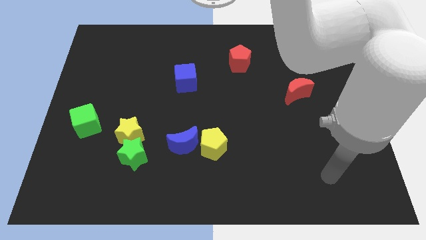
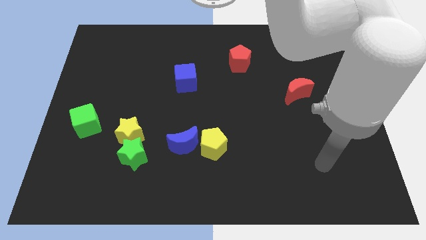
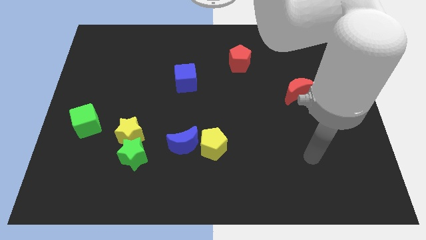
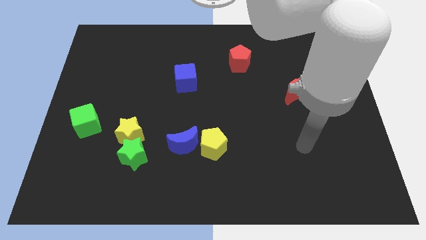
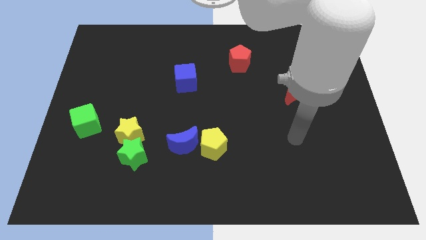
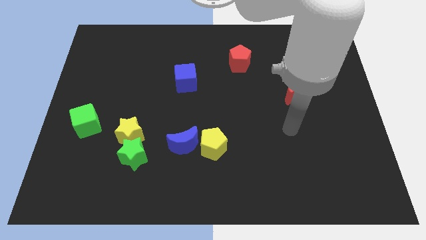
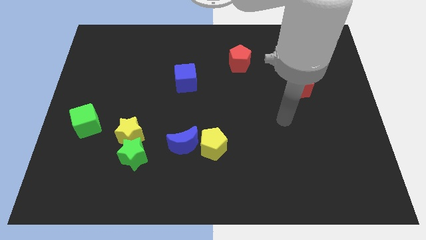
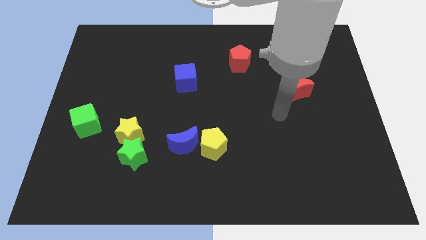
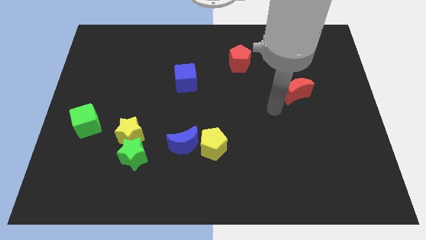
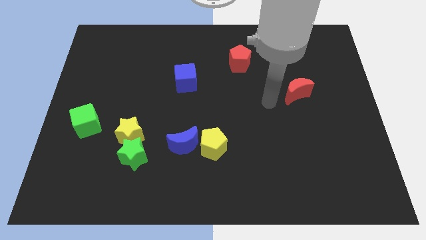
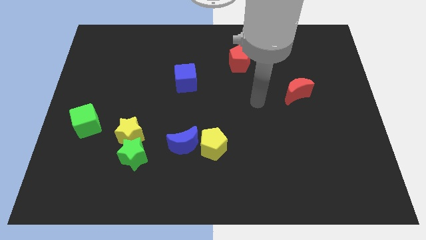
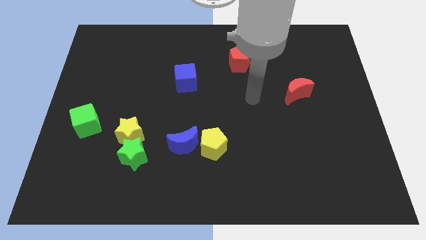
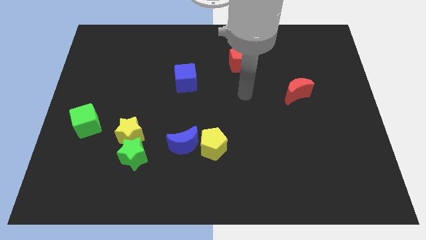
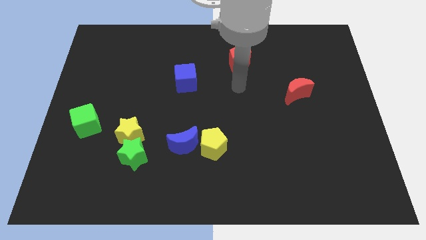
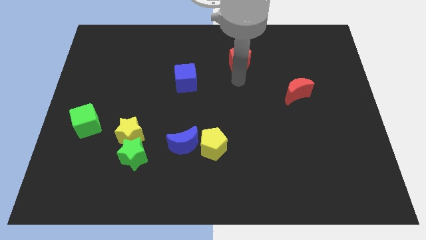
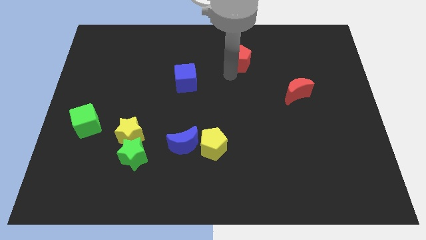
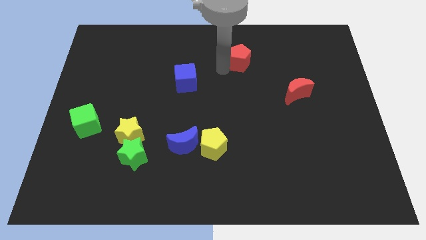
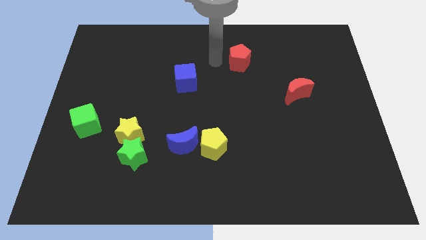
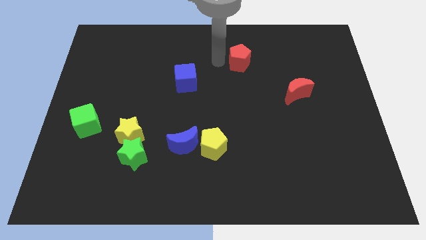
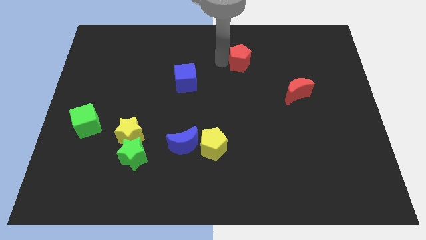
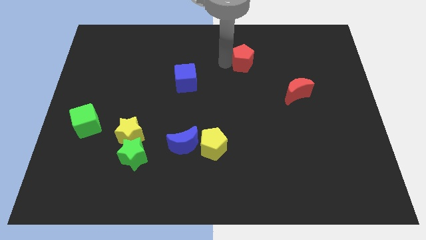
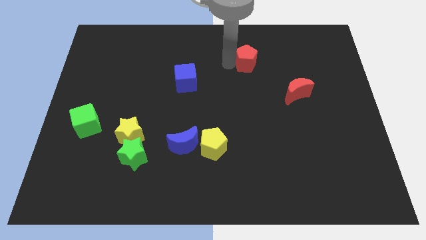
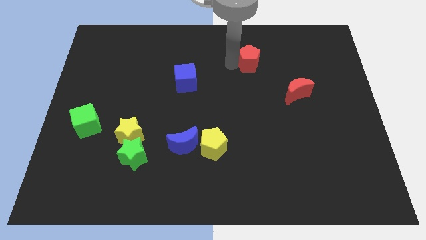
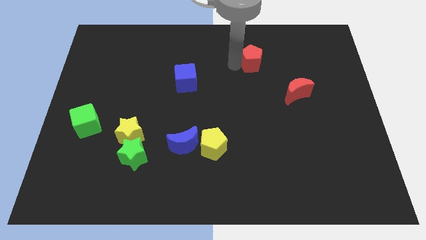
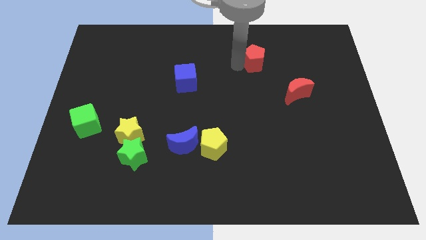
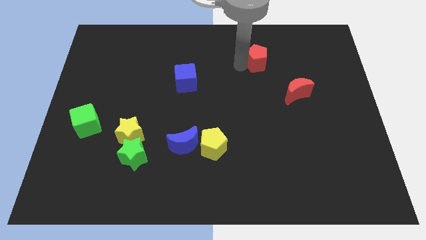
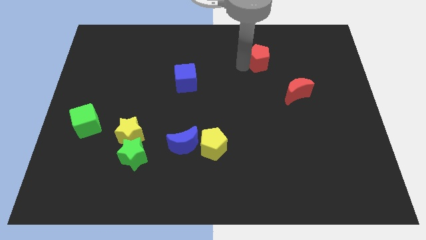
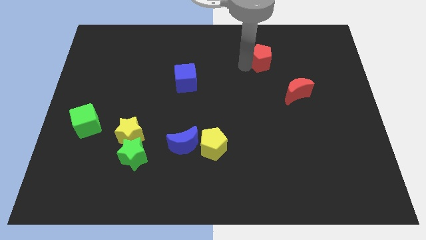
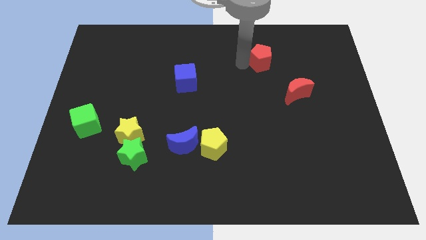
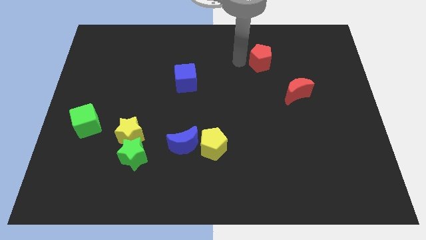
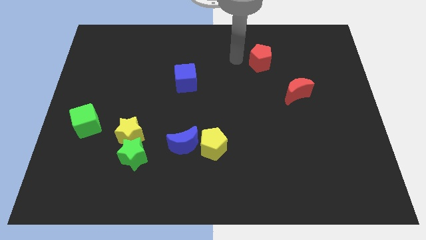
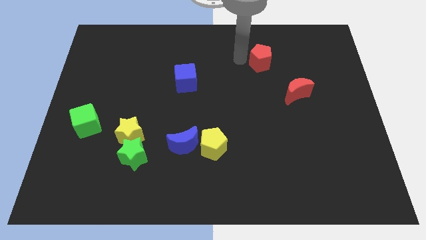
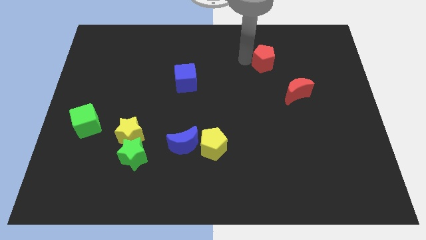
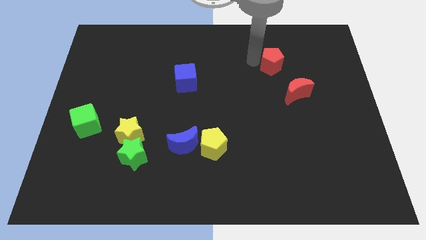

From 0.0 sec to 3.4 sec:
slightly push the red pentagon right

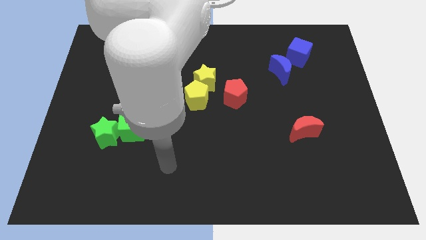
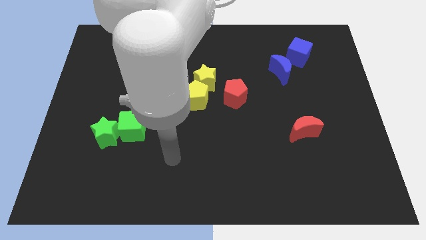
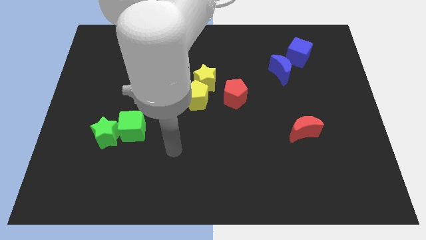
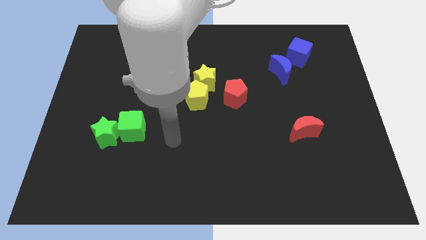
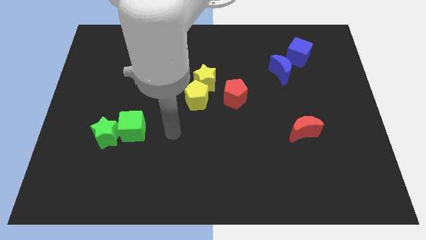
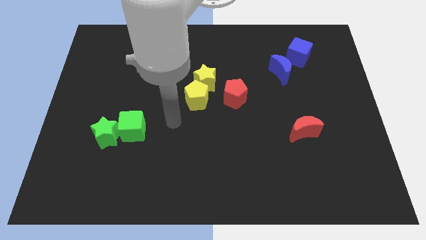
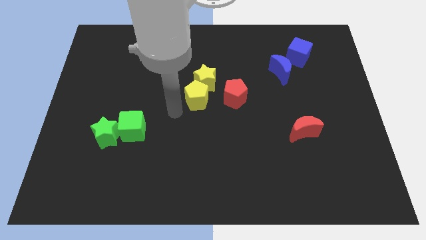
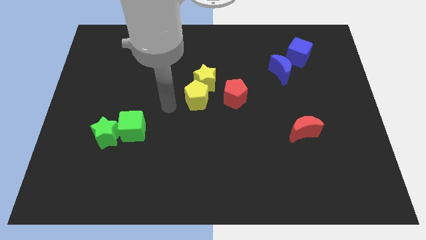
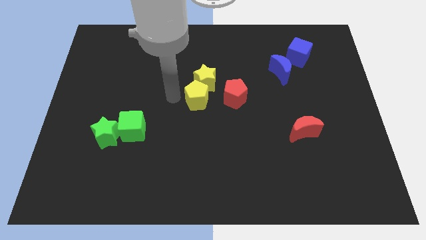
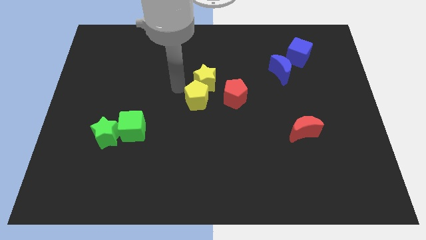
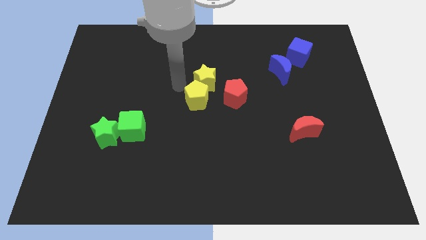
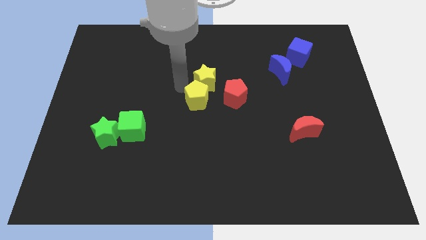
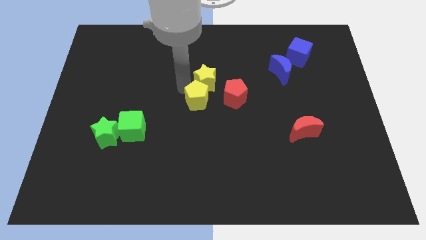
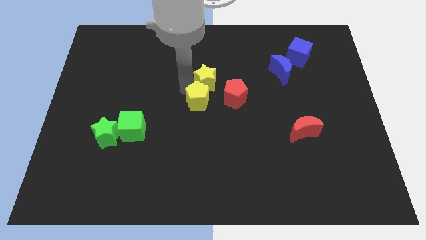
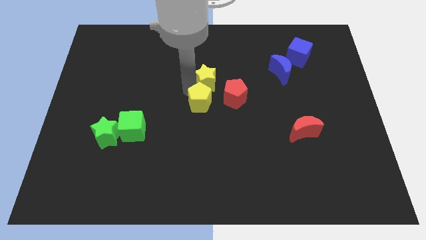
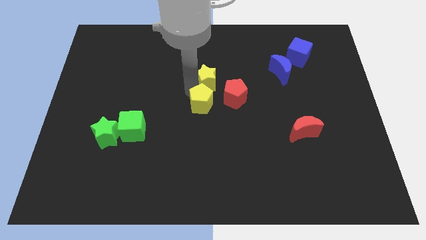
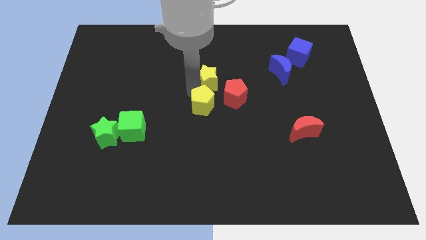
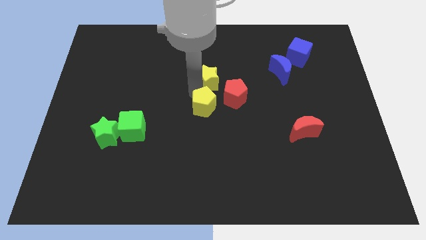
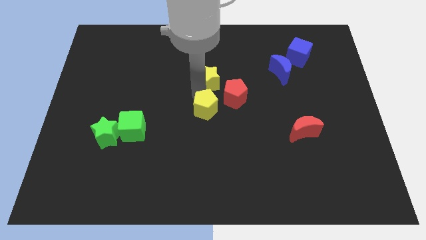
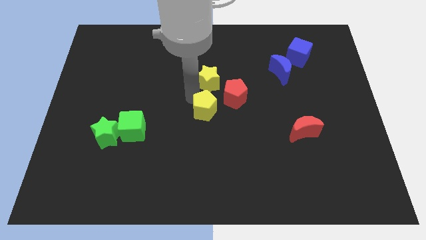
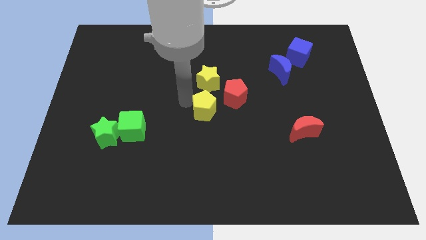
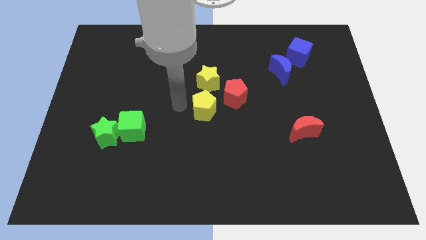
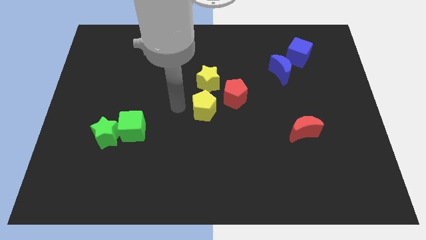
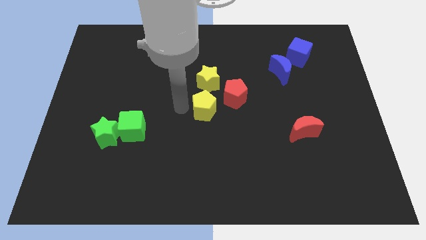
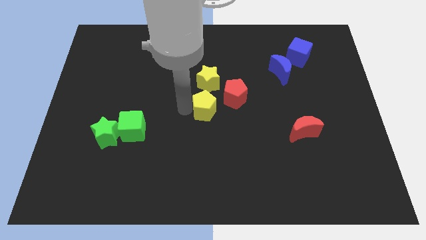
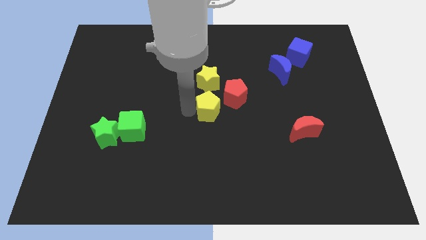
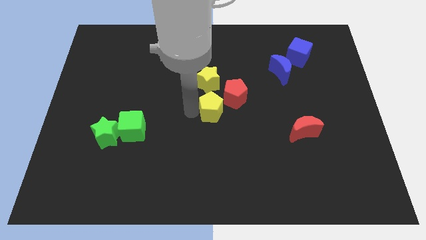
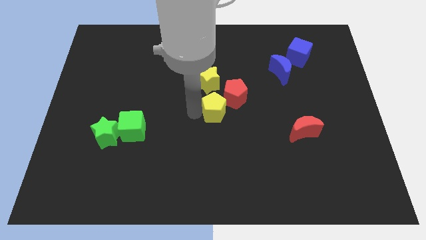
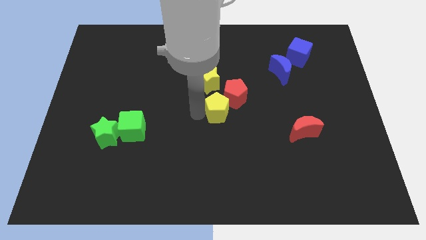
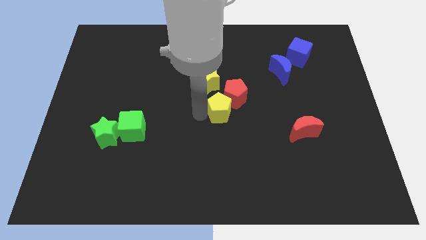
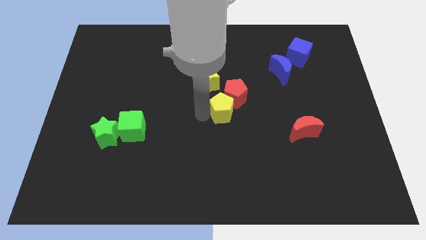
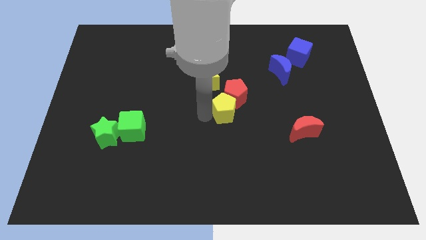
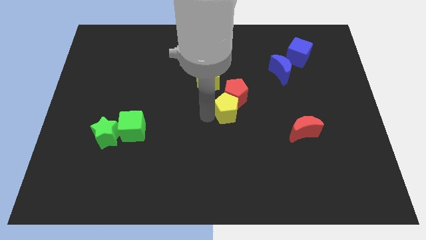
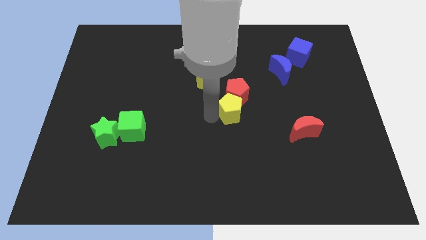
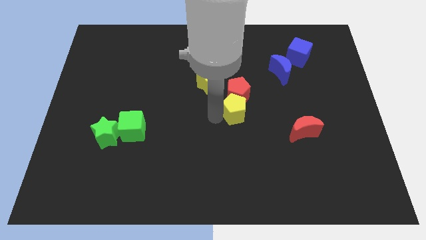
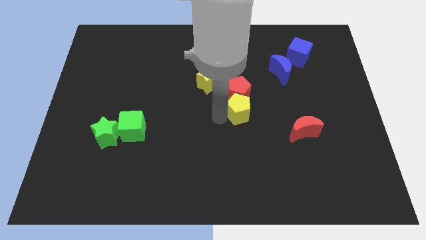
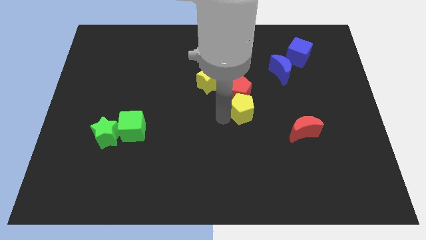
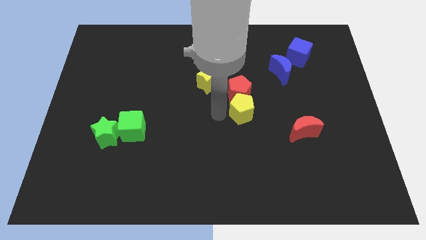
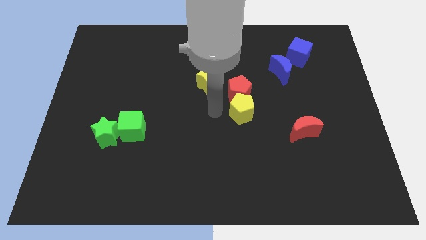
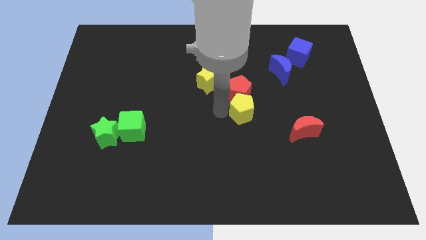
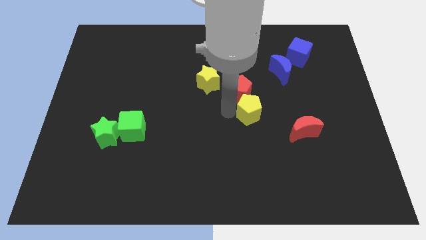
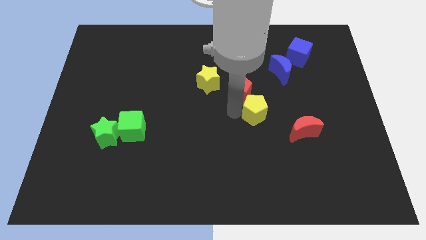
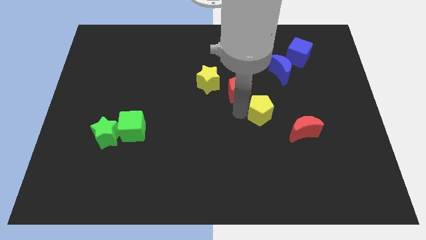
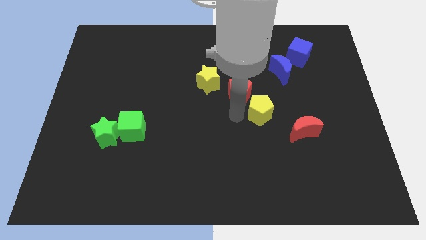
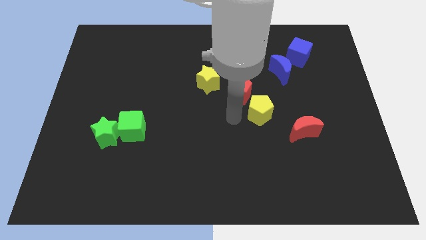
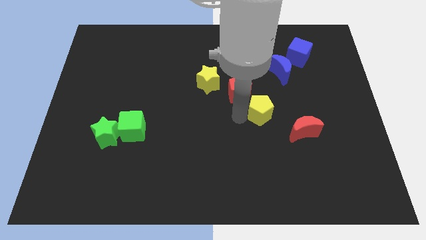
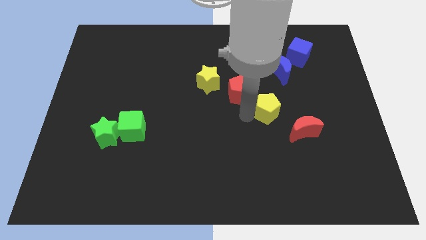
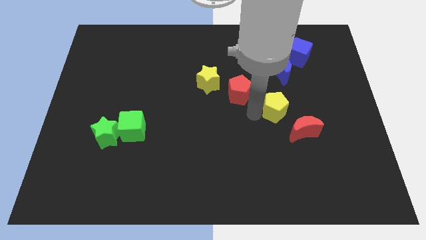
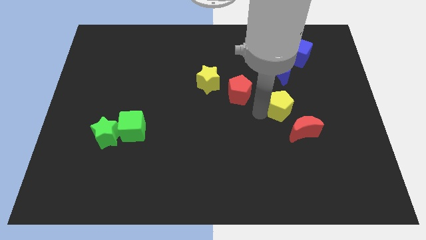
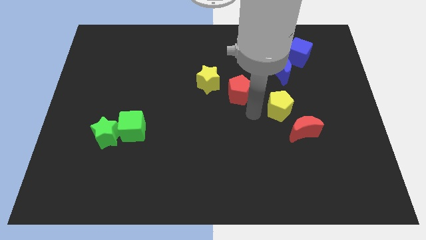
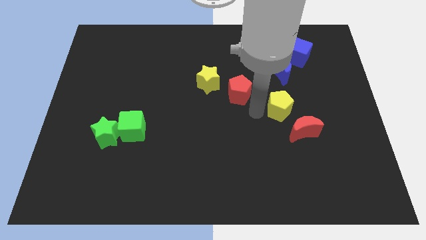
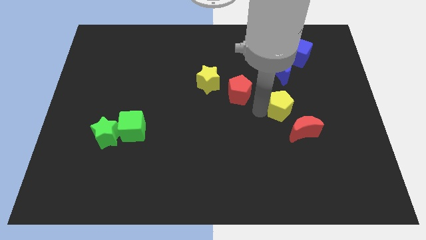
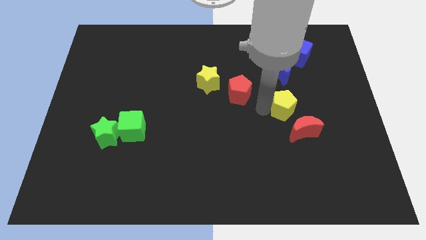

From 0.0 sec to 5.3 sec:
move the yellow pentagon right
